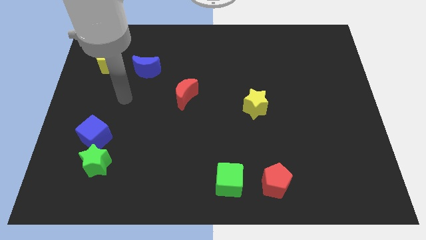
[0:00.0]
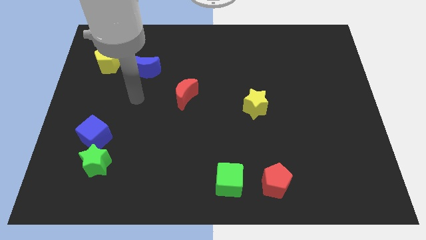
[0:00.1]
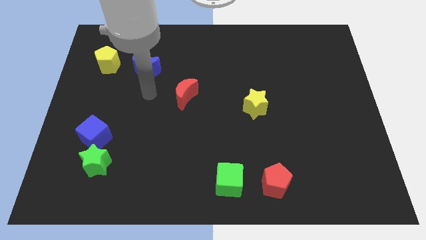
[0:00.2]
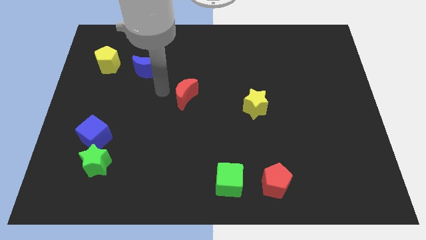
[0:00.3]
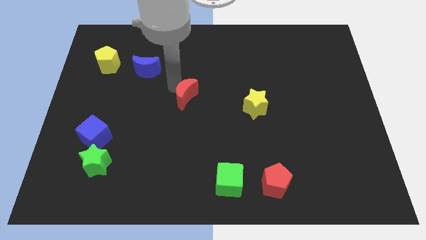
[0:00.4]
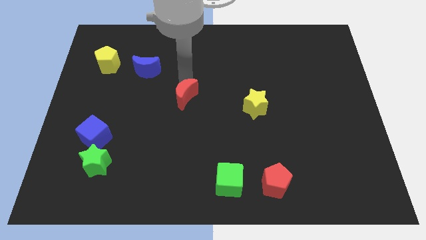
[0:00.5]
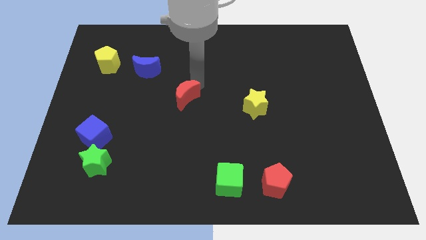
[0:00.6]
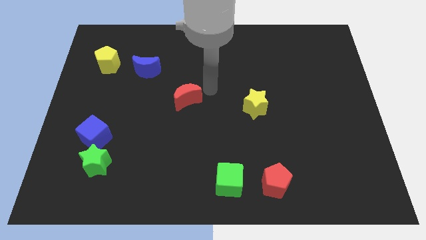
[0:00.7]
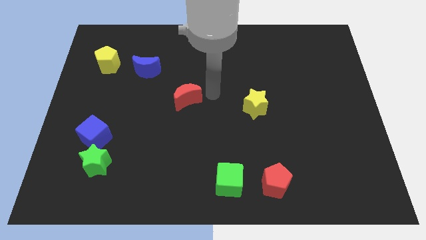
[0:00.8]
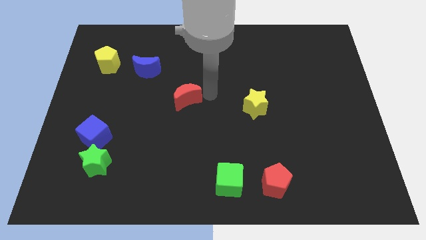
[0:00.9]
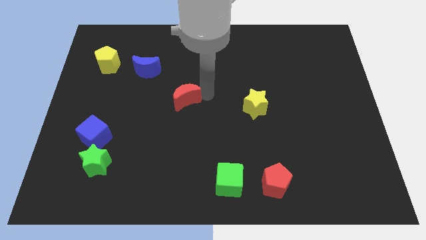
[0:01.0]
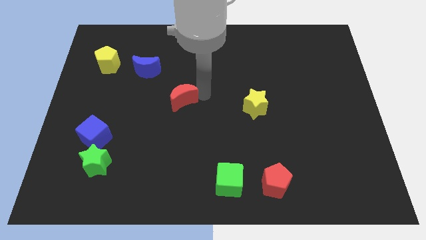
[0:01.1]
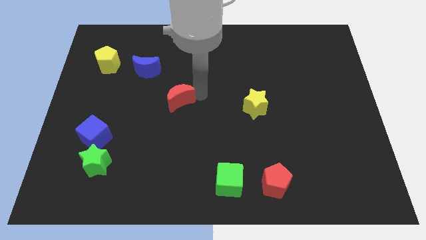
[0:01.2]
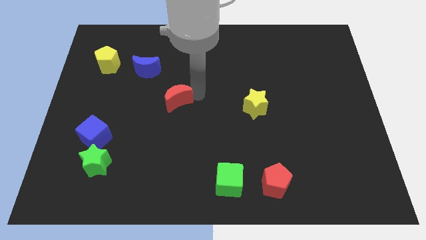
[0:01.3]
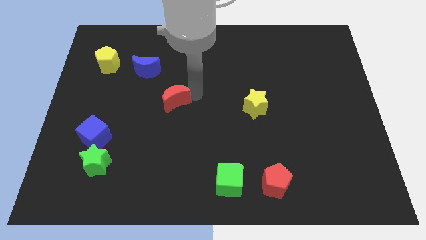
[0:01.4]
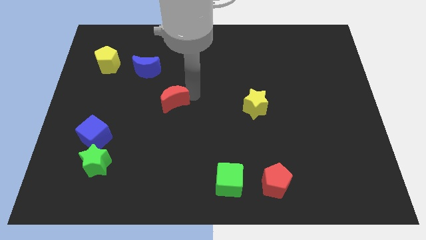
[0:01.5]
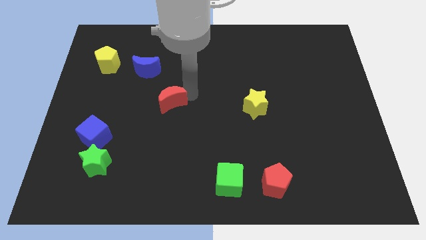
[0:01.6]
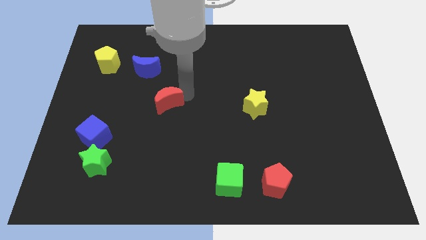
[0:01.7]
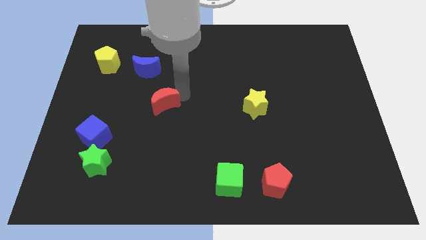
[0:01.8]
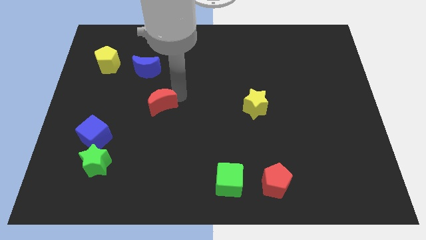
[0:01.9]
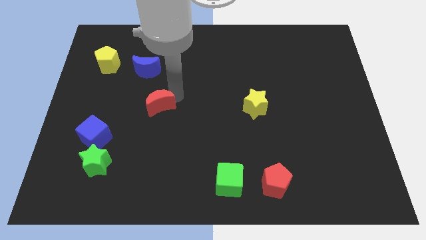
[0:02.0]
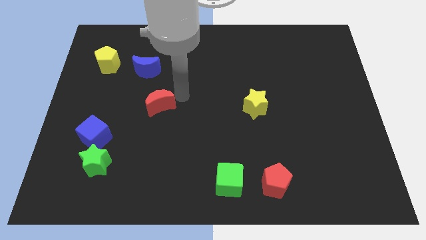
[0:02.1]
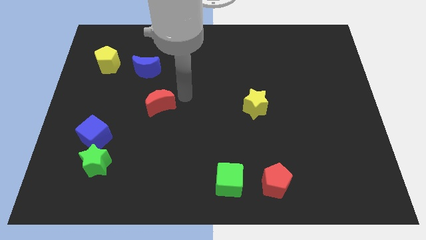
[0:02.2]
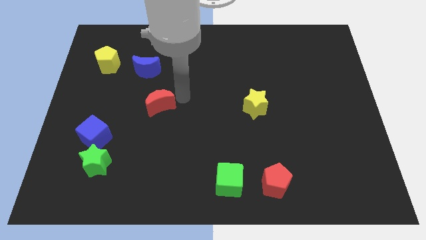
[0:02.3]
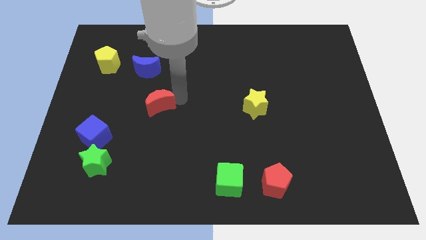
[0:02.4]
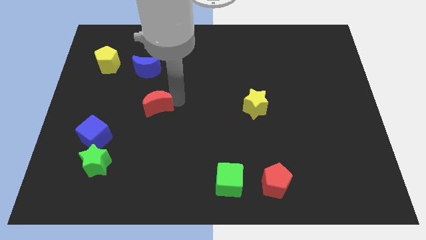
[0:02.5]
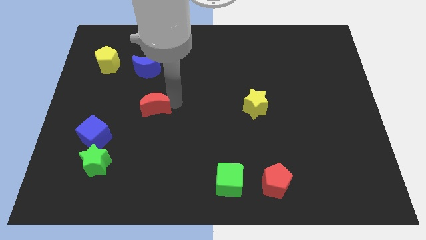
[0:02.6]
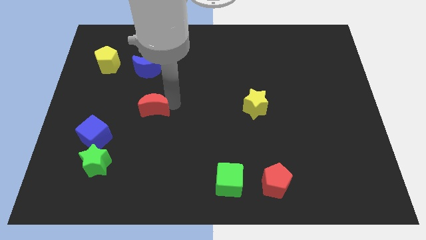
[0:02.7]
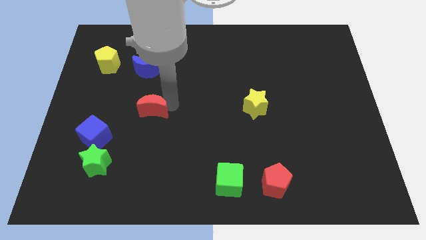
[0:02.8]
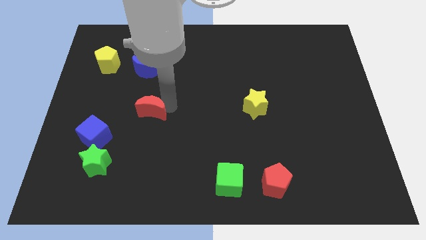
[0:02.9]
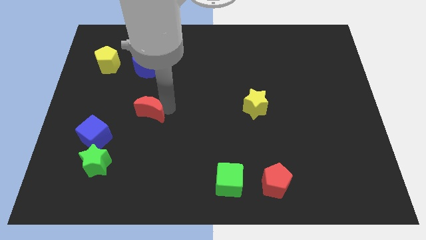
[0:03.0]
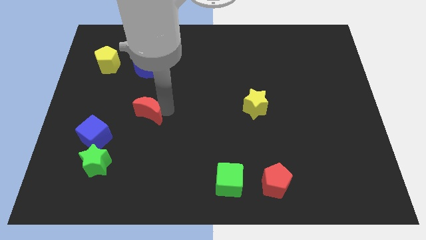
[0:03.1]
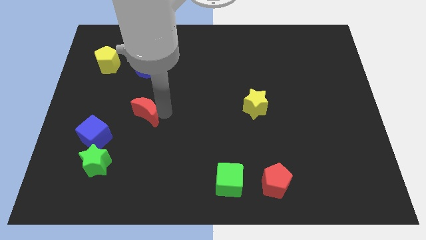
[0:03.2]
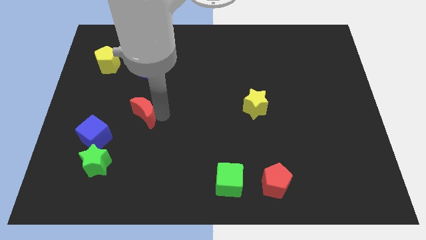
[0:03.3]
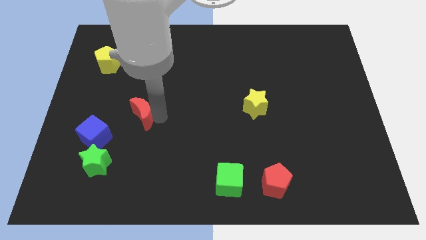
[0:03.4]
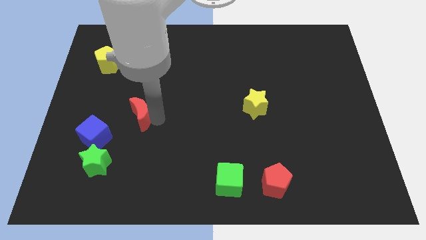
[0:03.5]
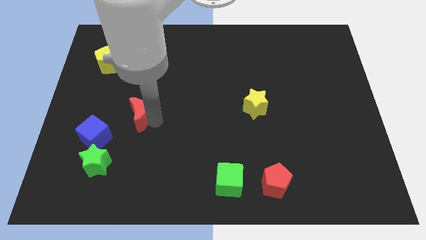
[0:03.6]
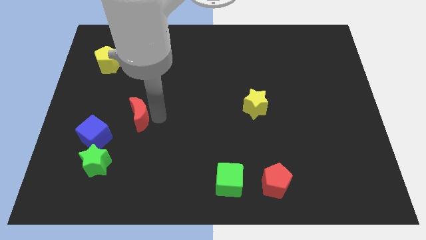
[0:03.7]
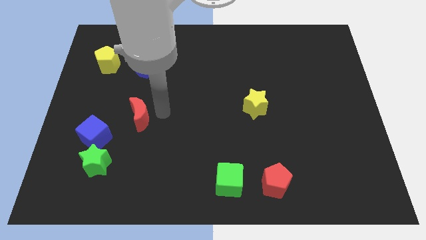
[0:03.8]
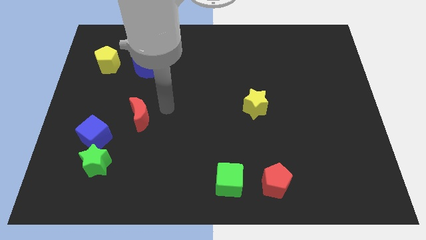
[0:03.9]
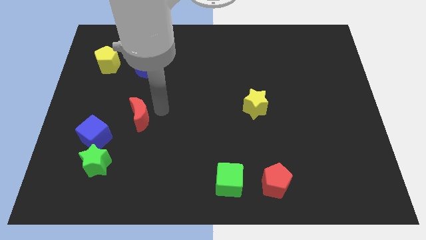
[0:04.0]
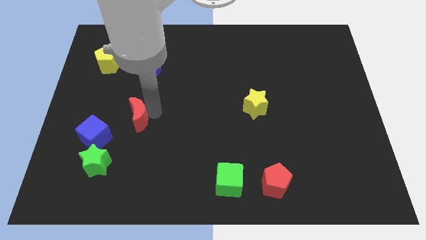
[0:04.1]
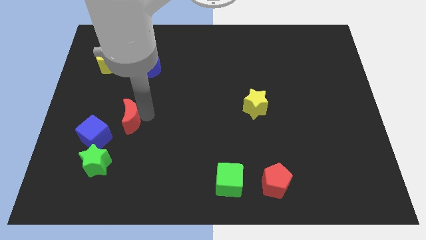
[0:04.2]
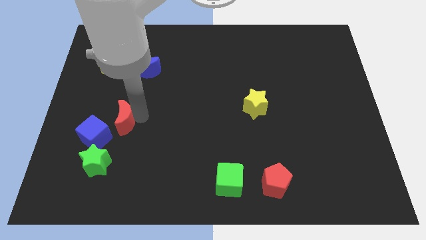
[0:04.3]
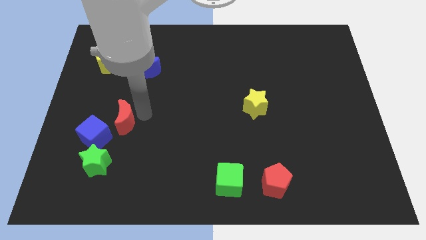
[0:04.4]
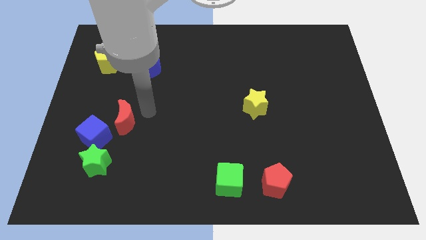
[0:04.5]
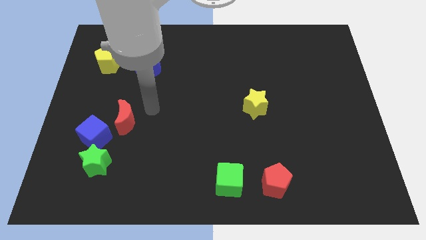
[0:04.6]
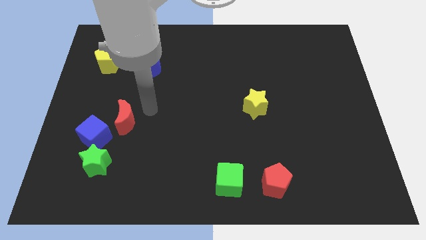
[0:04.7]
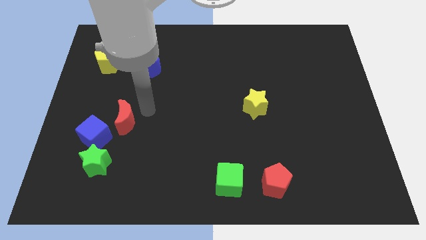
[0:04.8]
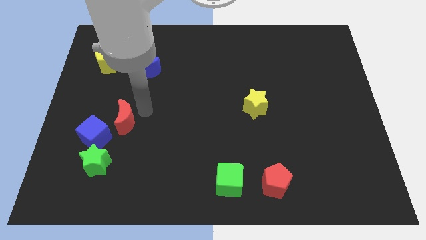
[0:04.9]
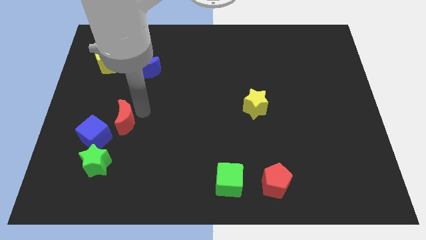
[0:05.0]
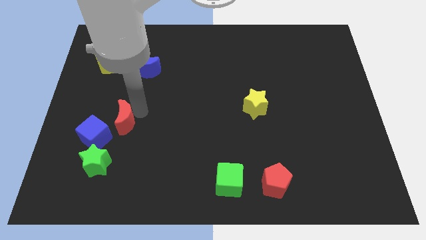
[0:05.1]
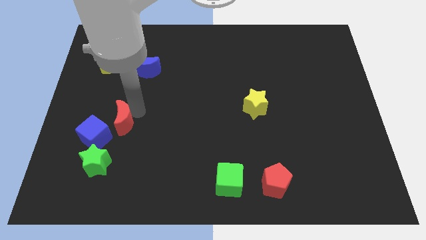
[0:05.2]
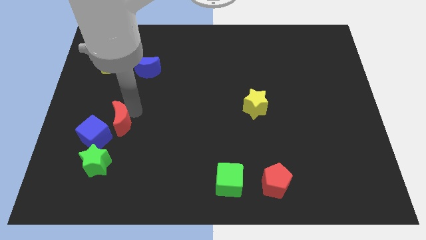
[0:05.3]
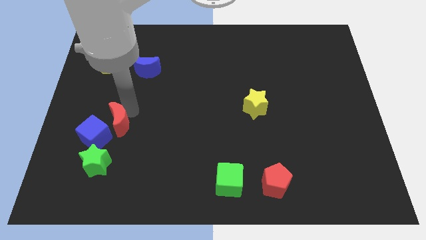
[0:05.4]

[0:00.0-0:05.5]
put the red moon close to the blue cube
